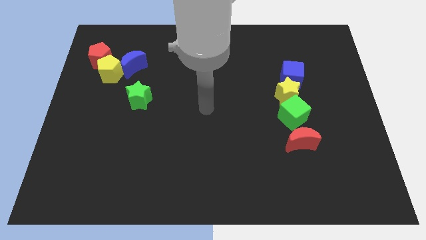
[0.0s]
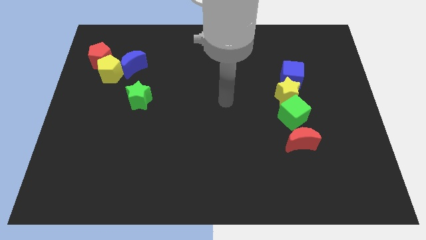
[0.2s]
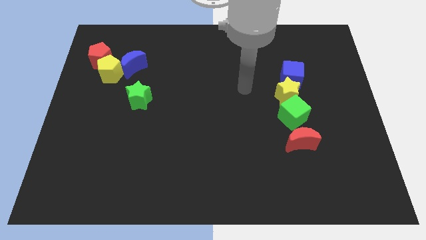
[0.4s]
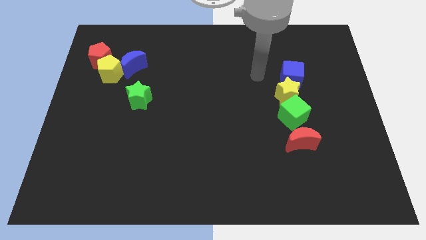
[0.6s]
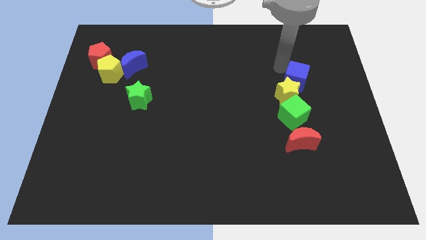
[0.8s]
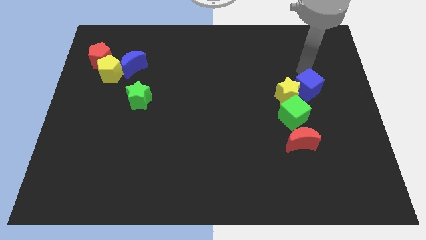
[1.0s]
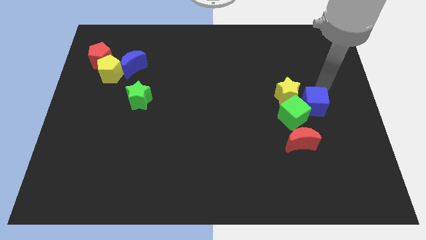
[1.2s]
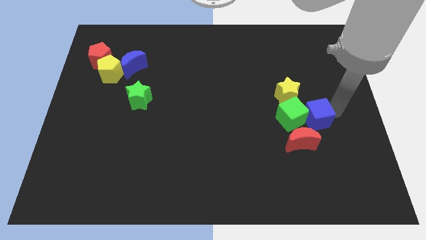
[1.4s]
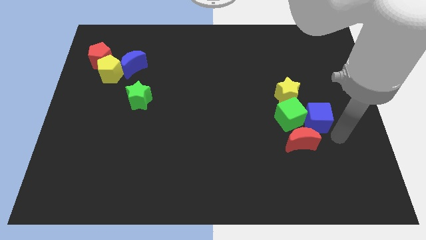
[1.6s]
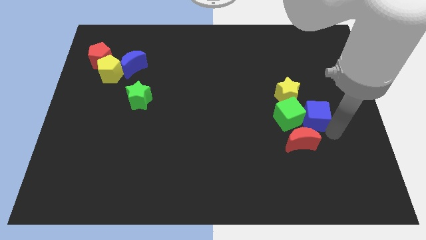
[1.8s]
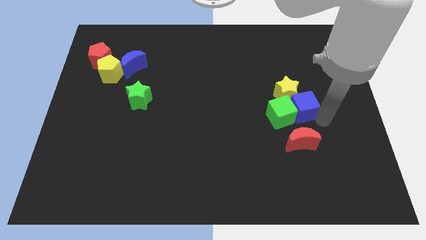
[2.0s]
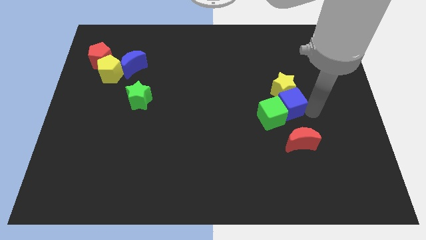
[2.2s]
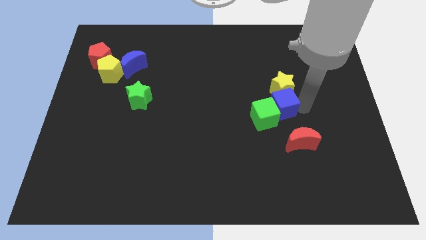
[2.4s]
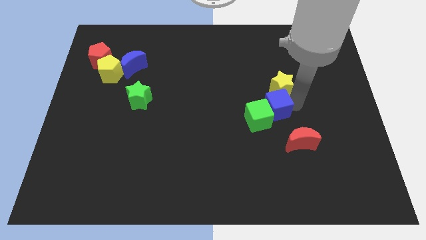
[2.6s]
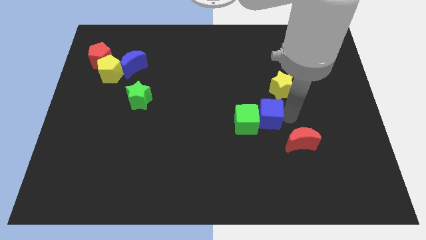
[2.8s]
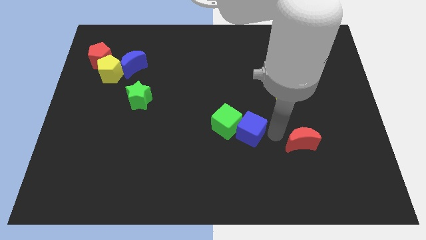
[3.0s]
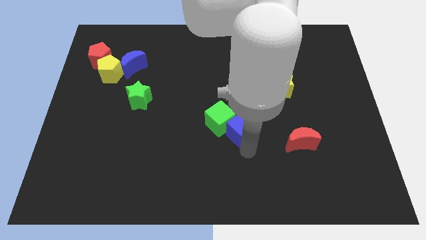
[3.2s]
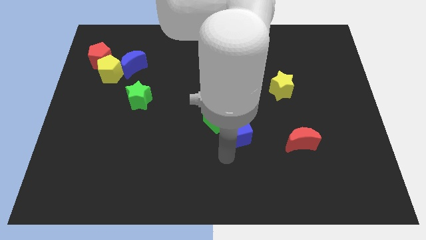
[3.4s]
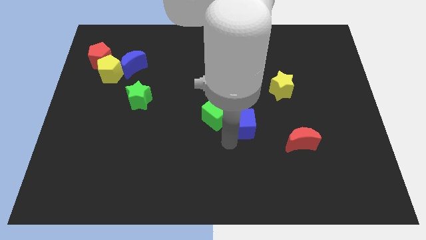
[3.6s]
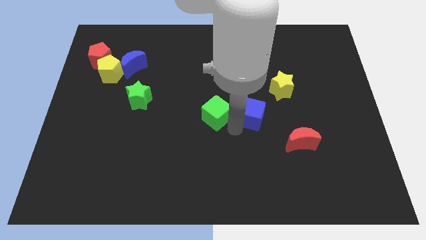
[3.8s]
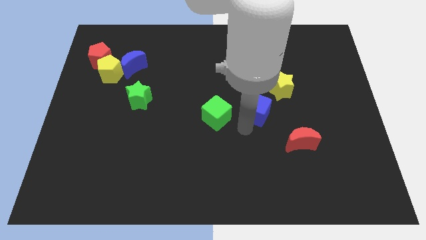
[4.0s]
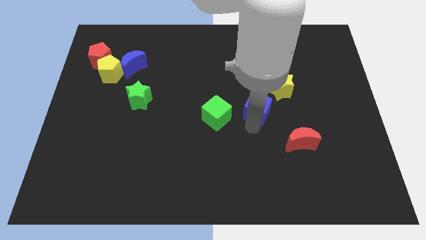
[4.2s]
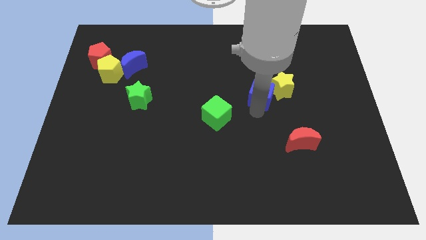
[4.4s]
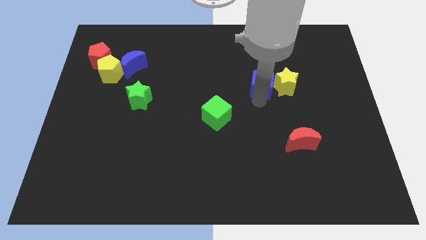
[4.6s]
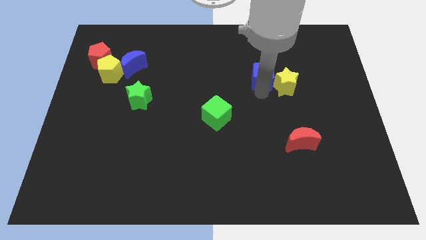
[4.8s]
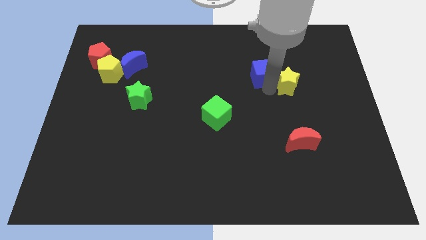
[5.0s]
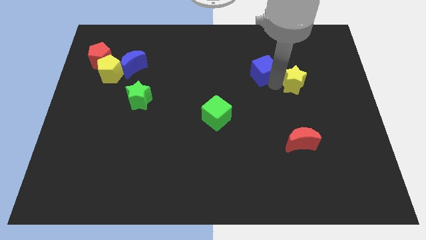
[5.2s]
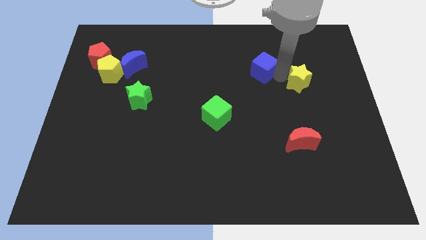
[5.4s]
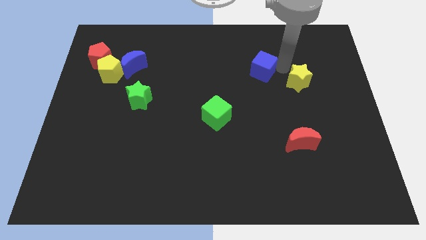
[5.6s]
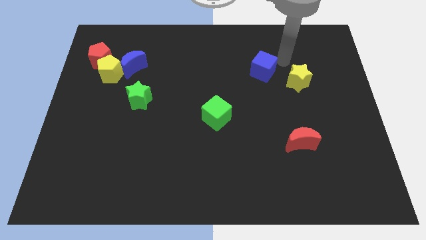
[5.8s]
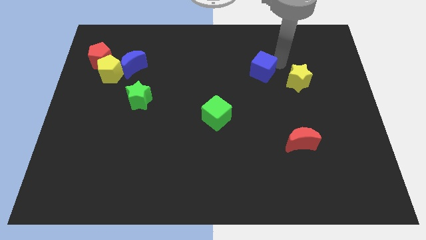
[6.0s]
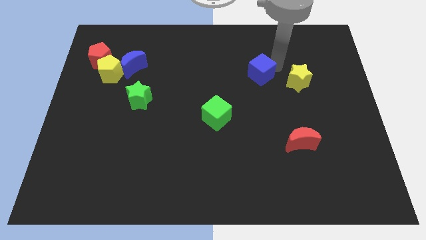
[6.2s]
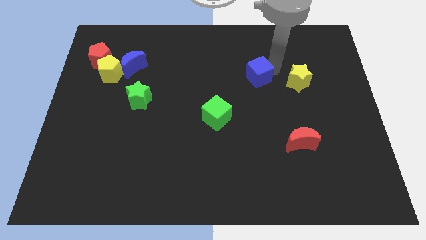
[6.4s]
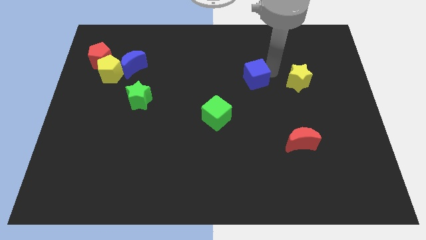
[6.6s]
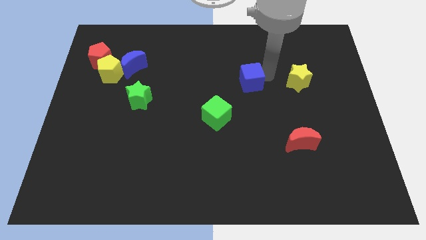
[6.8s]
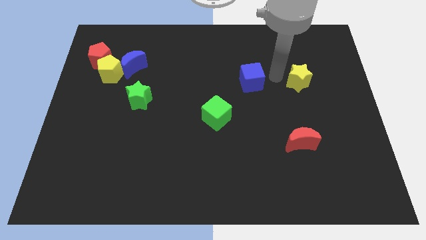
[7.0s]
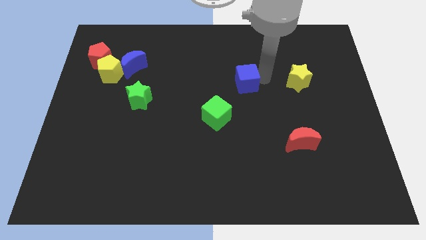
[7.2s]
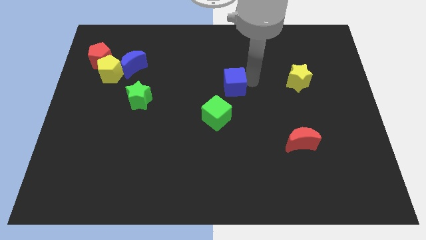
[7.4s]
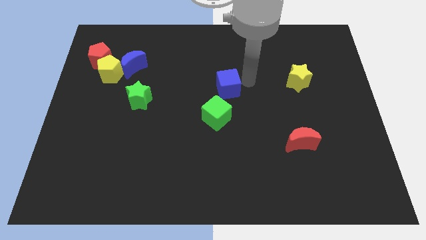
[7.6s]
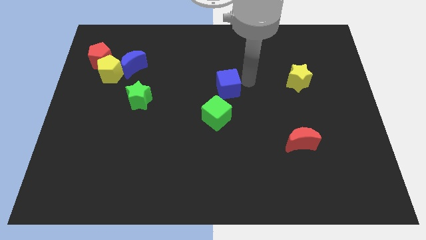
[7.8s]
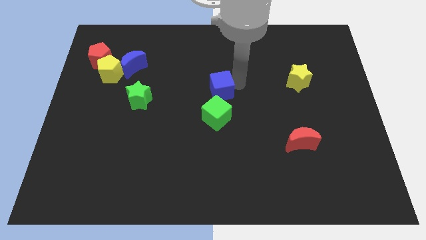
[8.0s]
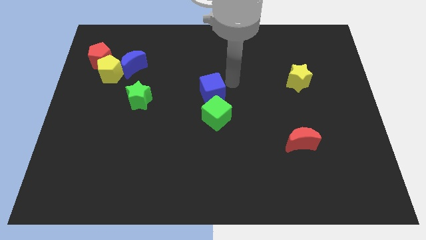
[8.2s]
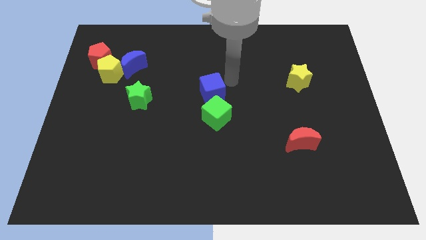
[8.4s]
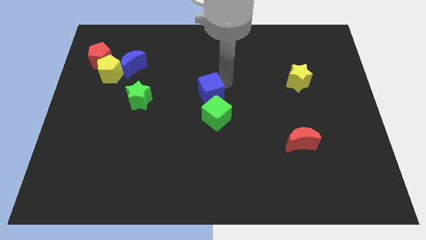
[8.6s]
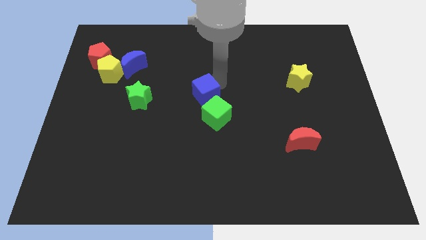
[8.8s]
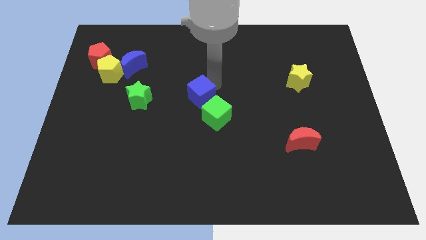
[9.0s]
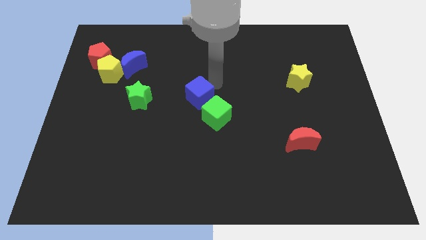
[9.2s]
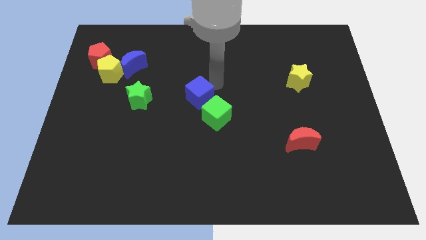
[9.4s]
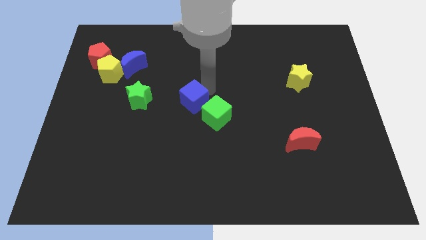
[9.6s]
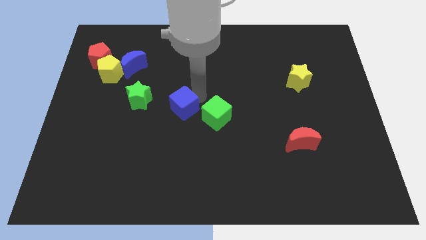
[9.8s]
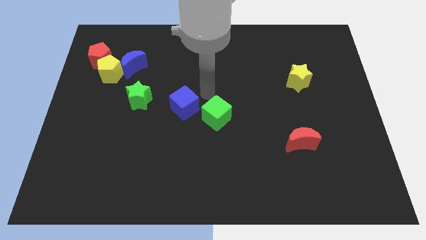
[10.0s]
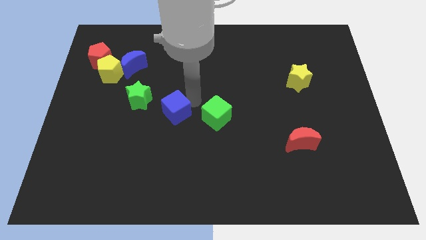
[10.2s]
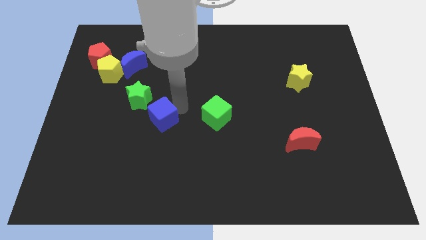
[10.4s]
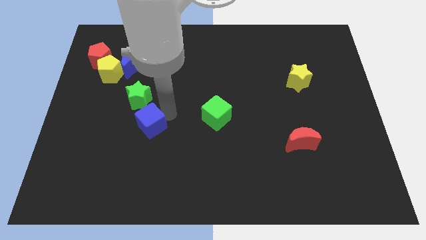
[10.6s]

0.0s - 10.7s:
put the blue cube to the bottom of the green star

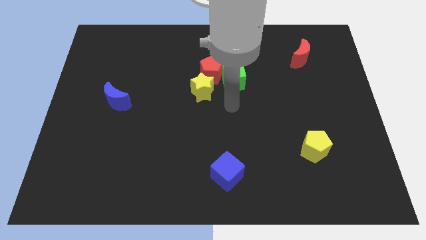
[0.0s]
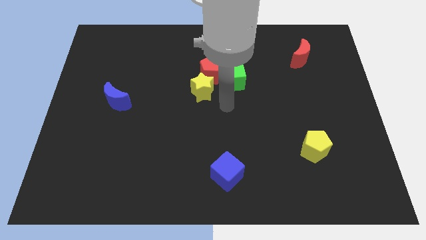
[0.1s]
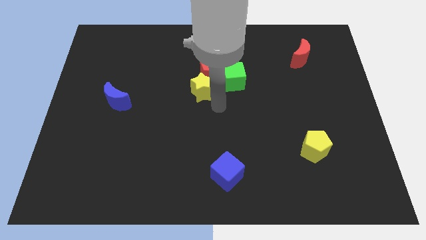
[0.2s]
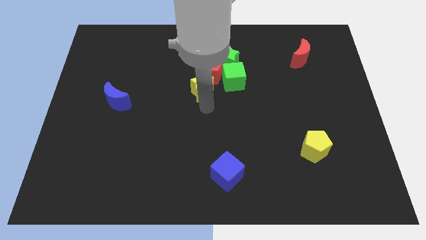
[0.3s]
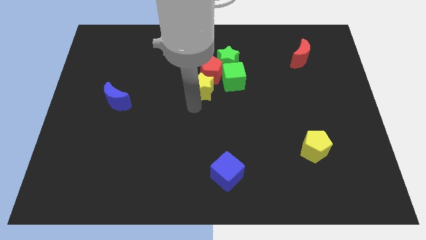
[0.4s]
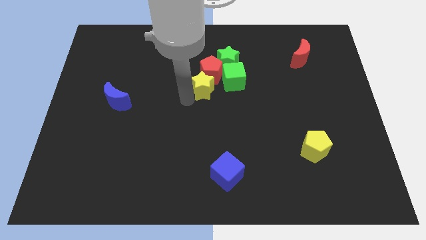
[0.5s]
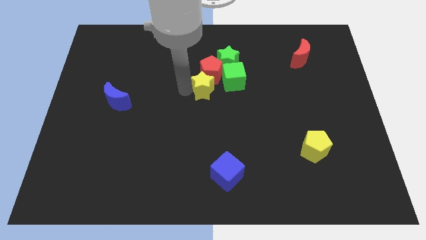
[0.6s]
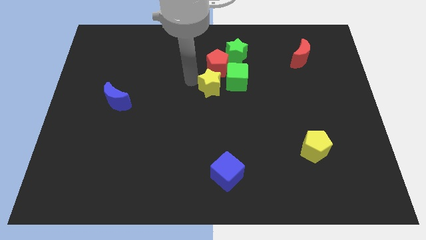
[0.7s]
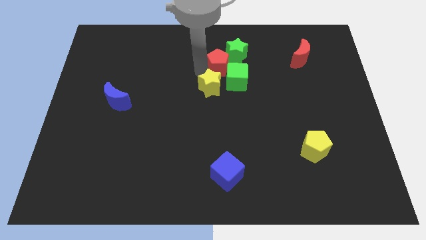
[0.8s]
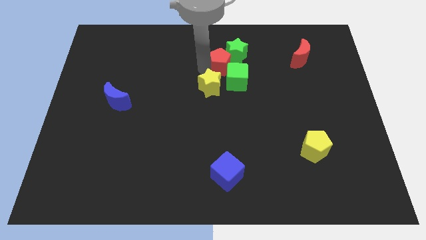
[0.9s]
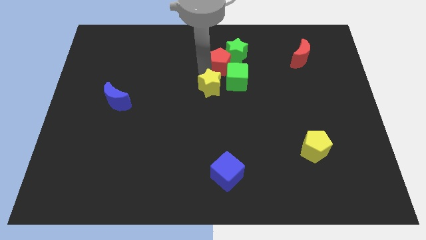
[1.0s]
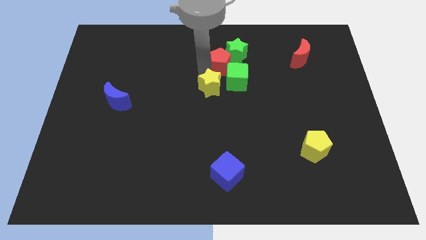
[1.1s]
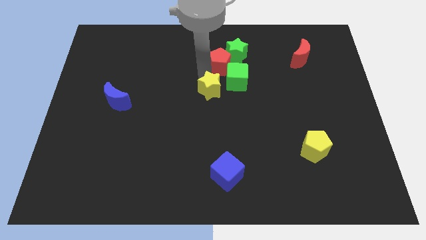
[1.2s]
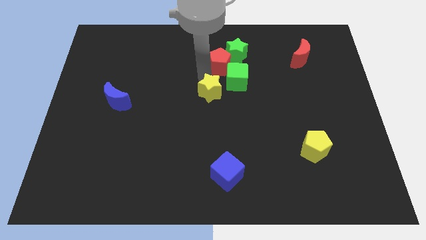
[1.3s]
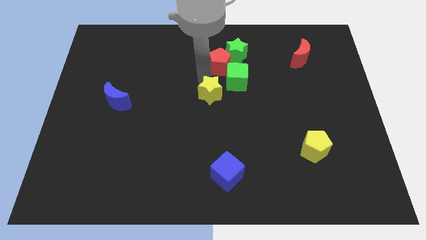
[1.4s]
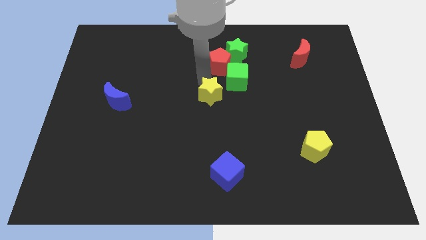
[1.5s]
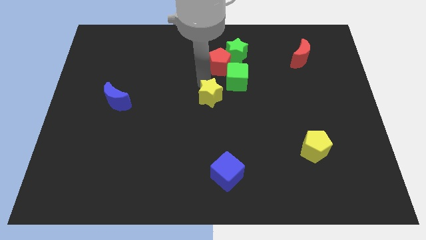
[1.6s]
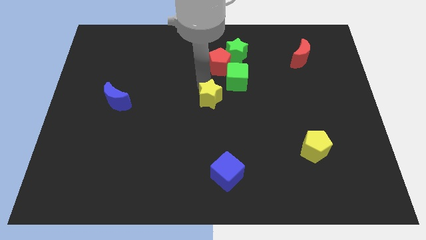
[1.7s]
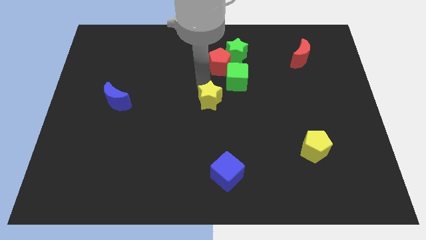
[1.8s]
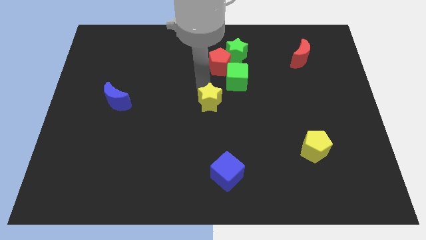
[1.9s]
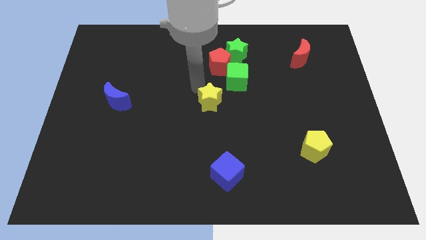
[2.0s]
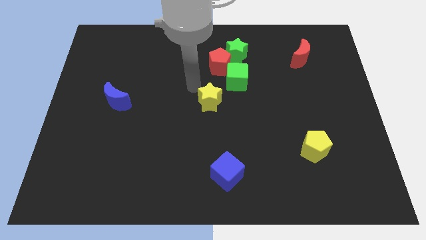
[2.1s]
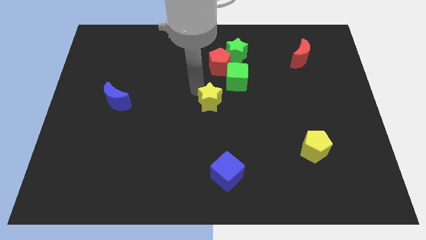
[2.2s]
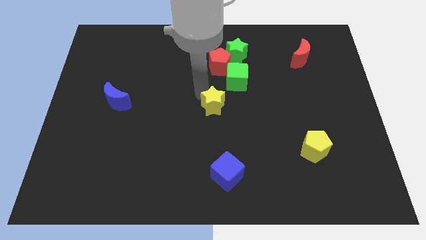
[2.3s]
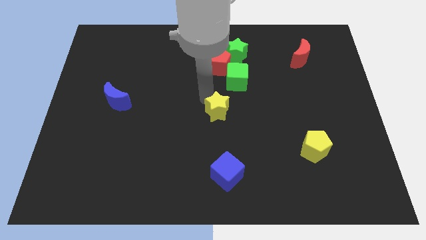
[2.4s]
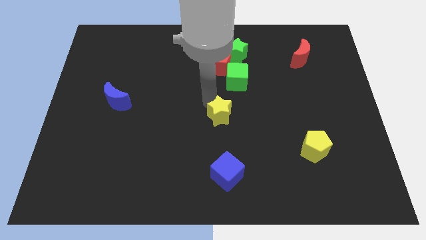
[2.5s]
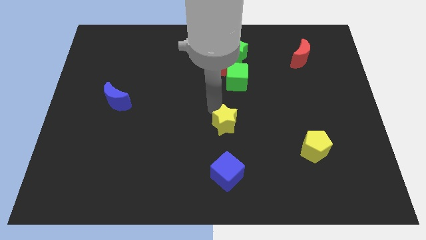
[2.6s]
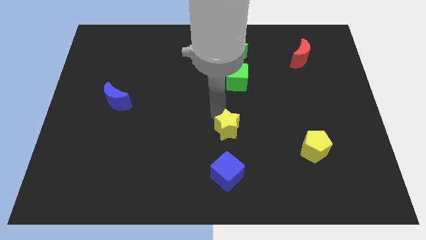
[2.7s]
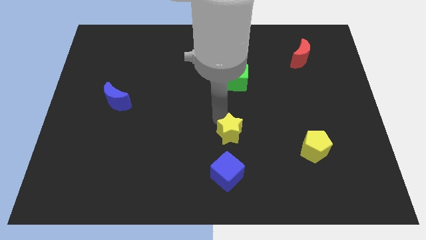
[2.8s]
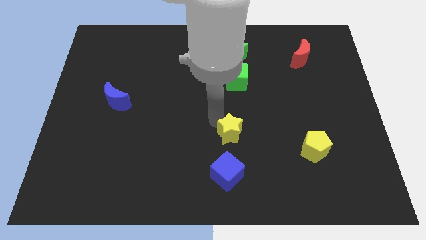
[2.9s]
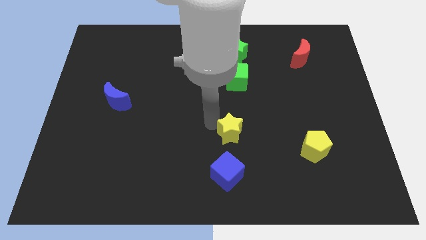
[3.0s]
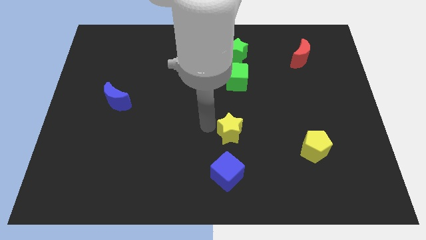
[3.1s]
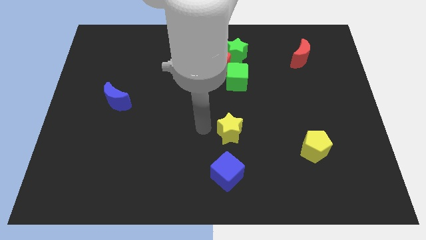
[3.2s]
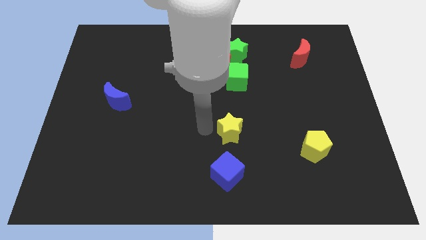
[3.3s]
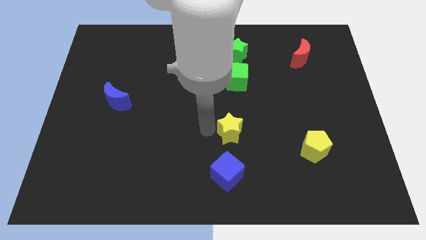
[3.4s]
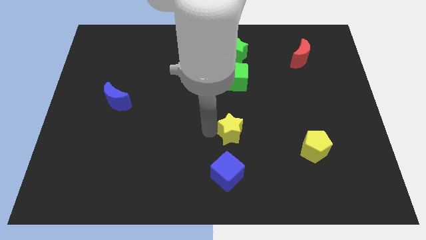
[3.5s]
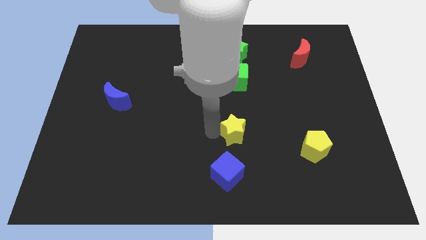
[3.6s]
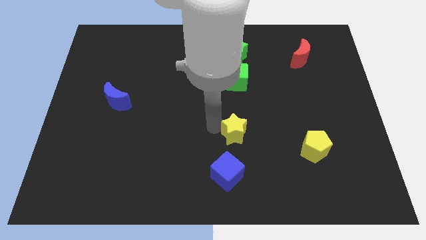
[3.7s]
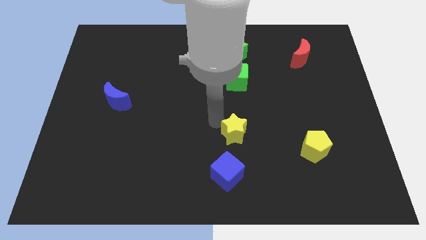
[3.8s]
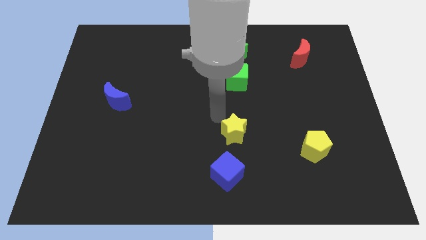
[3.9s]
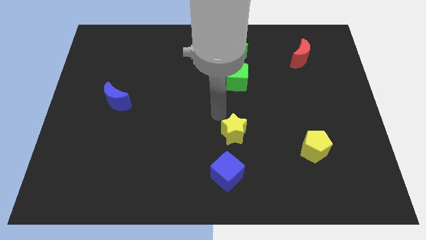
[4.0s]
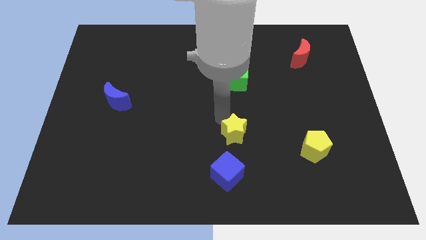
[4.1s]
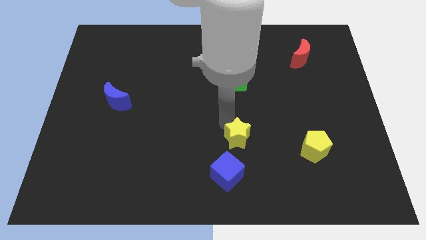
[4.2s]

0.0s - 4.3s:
slide the yellow star to the top right side of the blue cube
